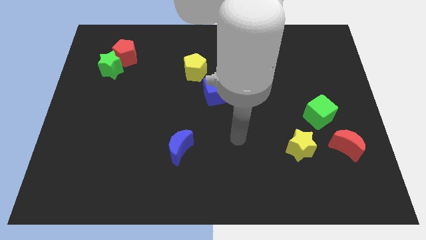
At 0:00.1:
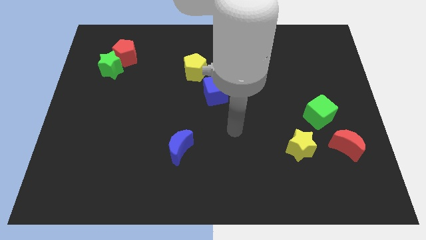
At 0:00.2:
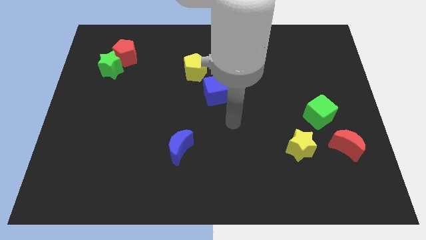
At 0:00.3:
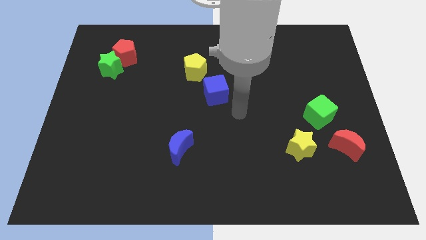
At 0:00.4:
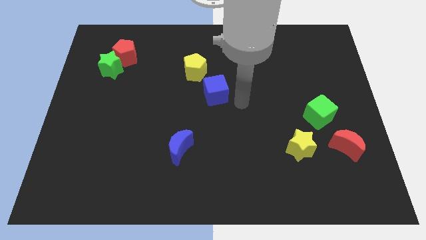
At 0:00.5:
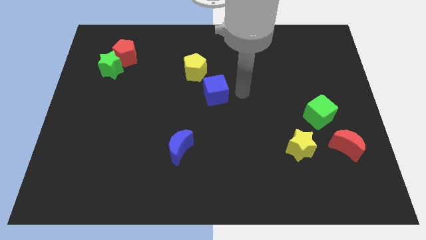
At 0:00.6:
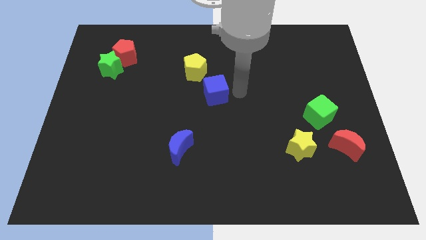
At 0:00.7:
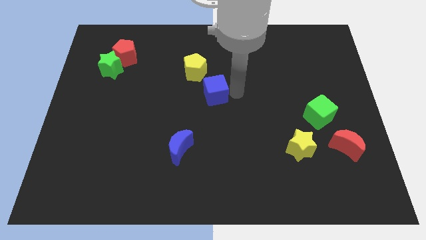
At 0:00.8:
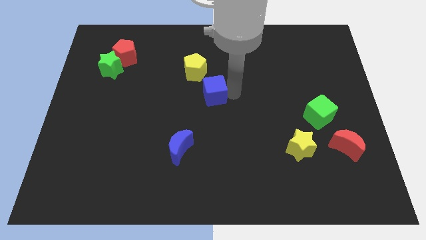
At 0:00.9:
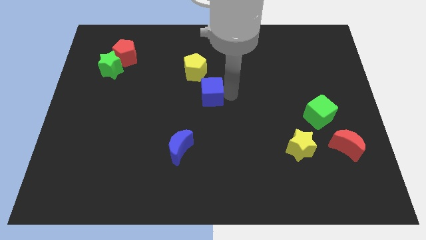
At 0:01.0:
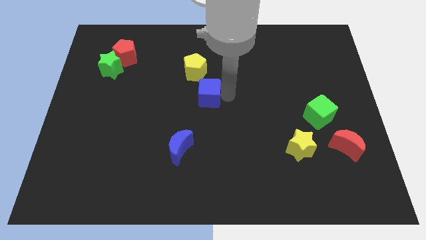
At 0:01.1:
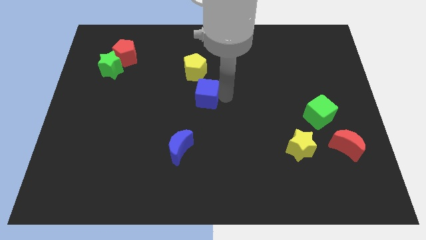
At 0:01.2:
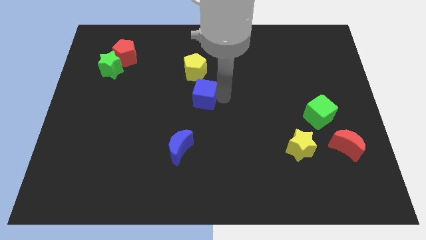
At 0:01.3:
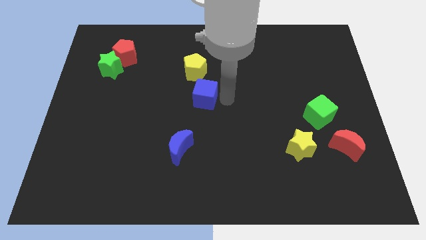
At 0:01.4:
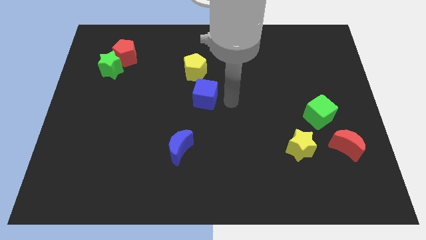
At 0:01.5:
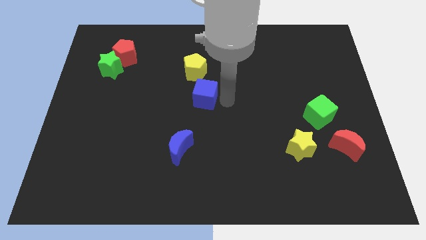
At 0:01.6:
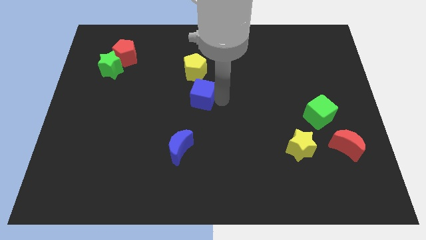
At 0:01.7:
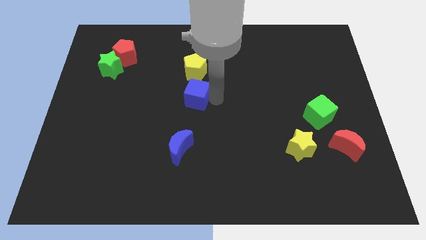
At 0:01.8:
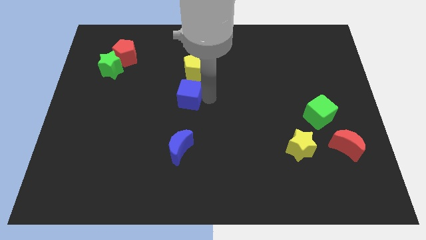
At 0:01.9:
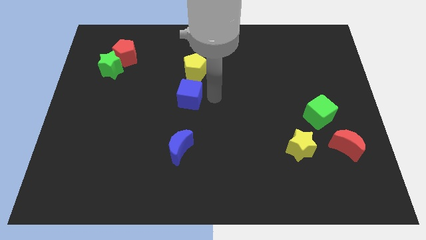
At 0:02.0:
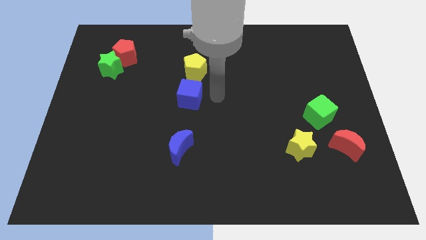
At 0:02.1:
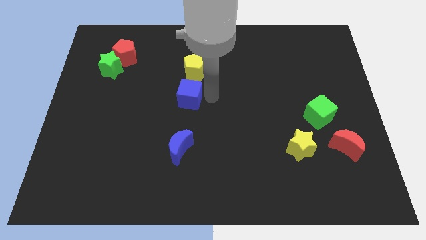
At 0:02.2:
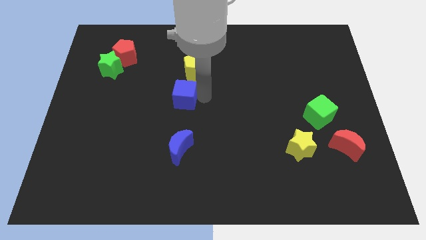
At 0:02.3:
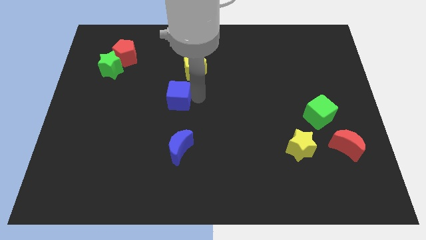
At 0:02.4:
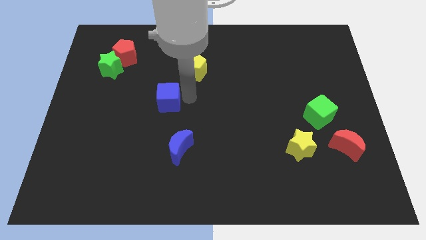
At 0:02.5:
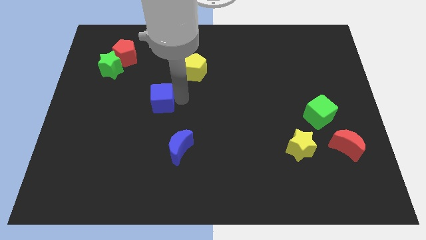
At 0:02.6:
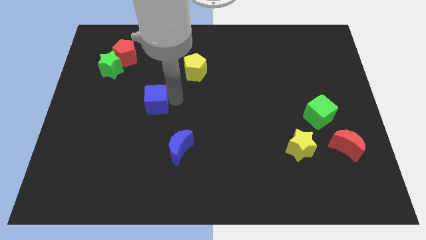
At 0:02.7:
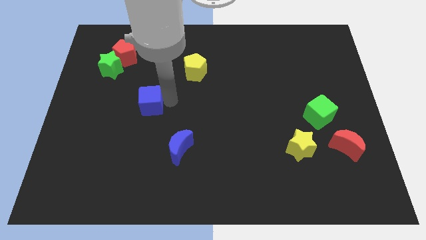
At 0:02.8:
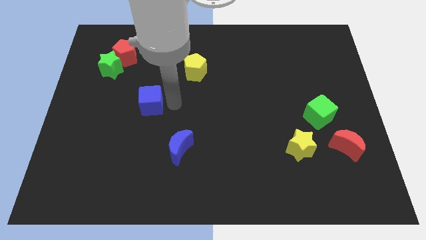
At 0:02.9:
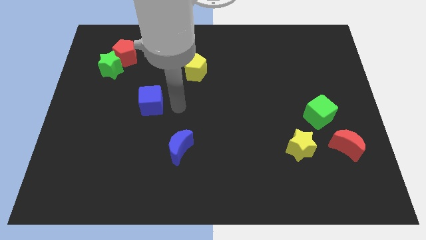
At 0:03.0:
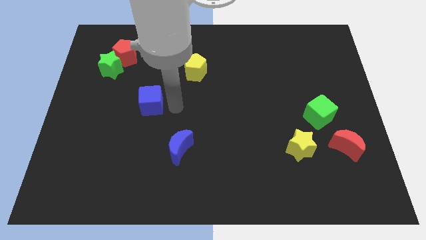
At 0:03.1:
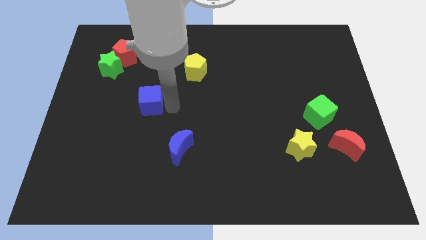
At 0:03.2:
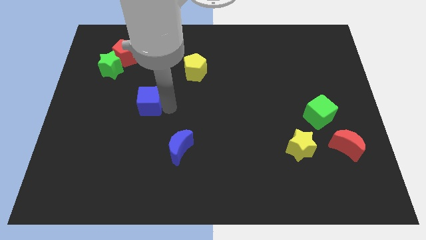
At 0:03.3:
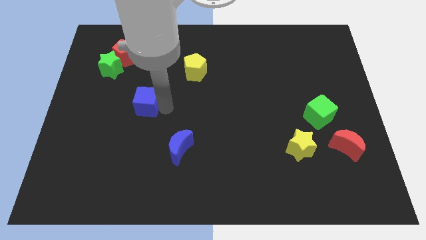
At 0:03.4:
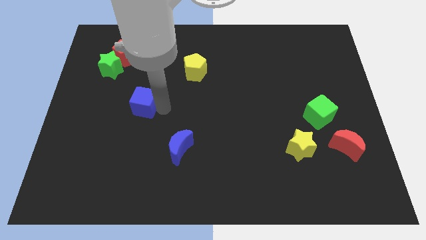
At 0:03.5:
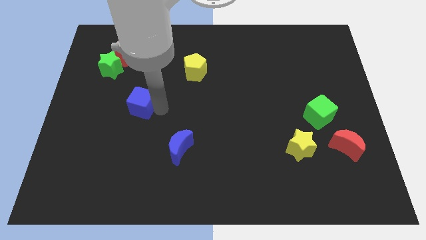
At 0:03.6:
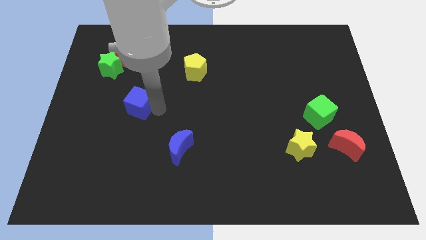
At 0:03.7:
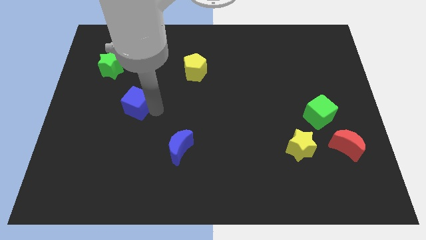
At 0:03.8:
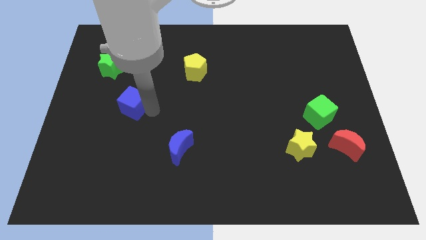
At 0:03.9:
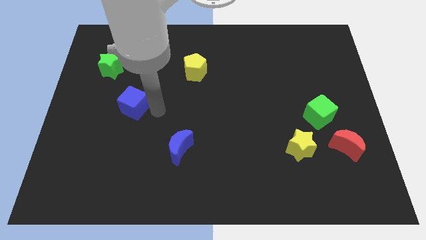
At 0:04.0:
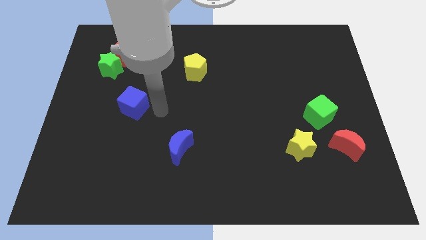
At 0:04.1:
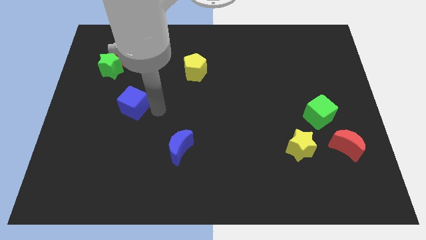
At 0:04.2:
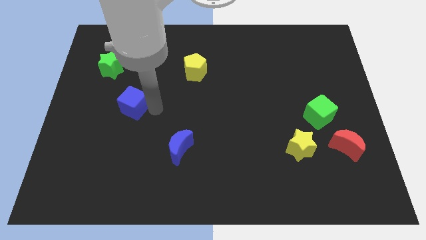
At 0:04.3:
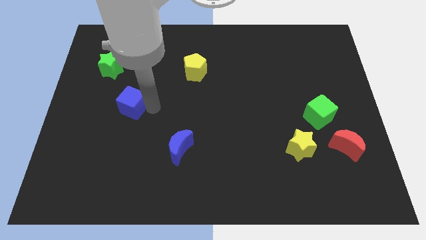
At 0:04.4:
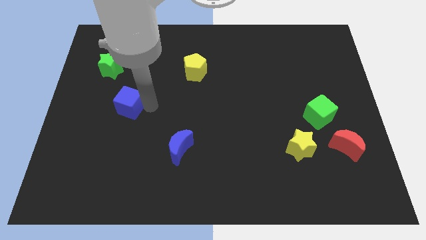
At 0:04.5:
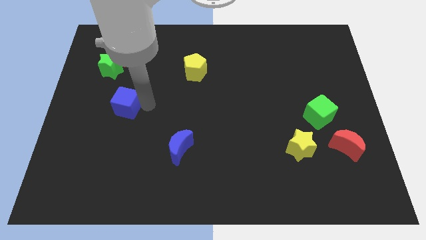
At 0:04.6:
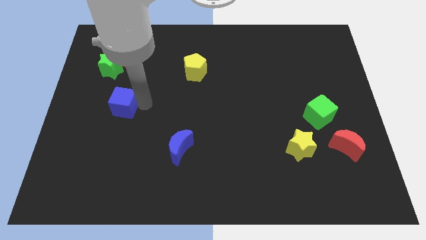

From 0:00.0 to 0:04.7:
push the blue cube to the bottom side of the green star

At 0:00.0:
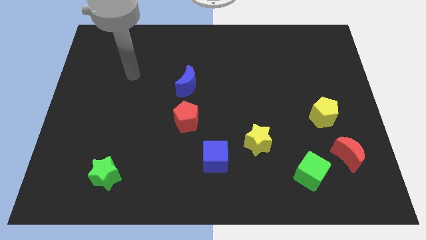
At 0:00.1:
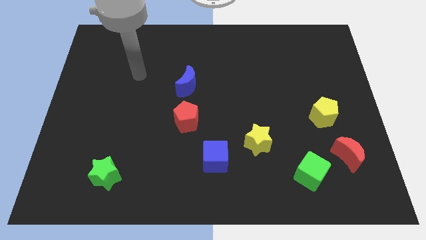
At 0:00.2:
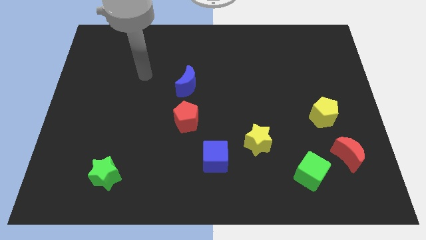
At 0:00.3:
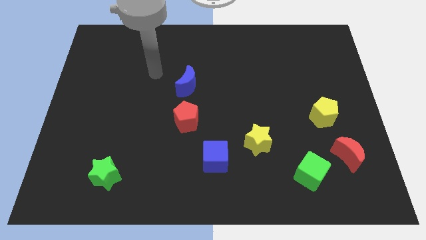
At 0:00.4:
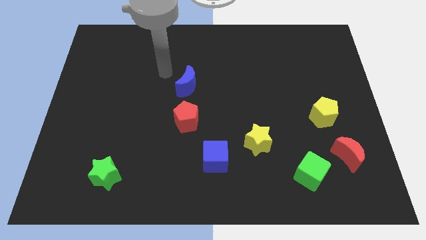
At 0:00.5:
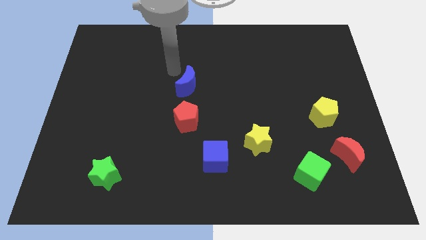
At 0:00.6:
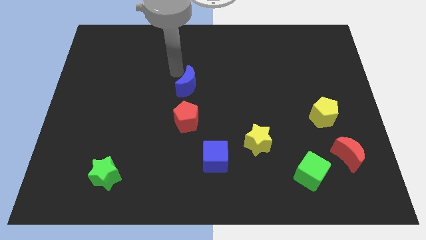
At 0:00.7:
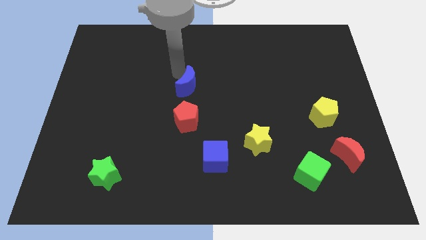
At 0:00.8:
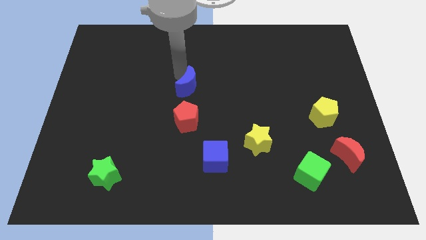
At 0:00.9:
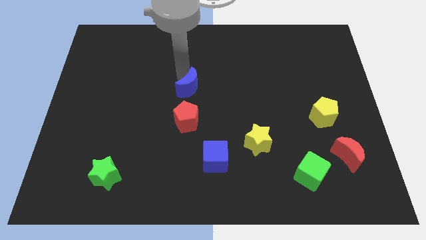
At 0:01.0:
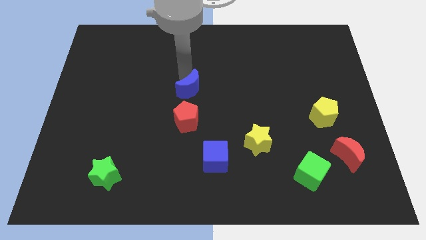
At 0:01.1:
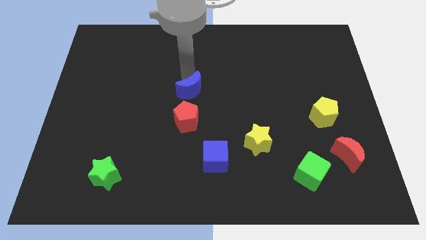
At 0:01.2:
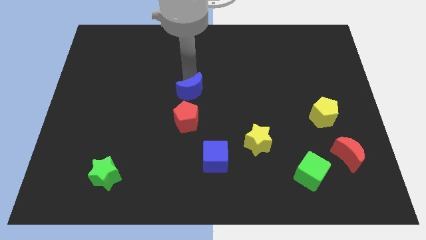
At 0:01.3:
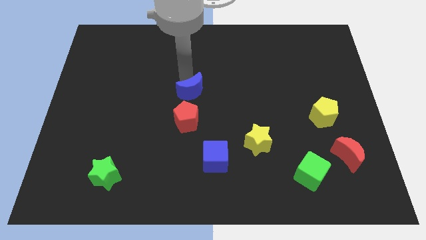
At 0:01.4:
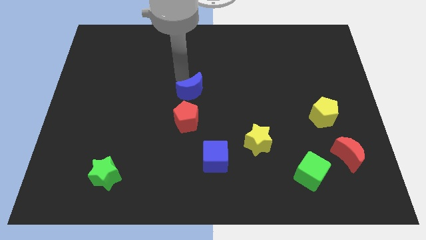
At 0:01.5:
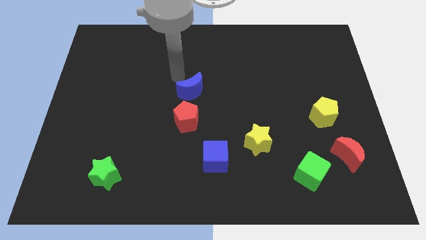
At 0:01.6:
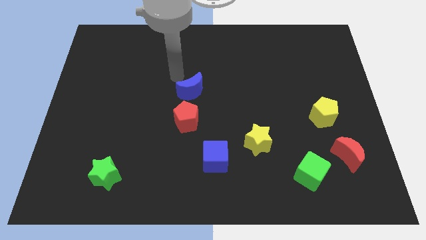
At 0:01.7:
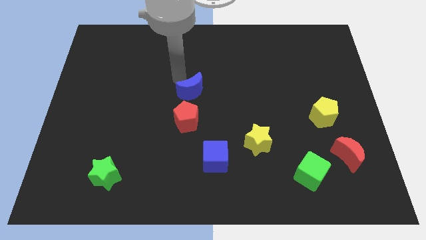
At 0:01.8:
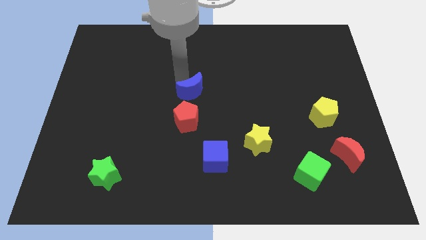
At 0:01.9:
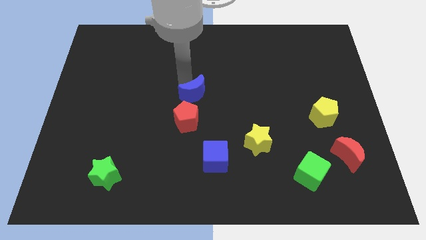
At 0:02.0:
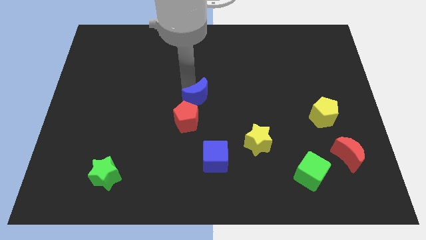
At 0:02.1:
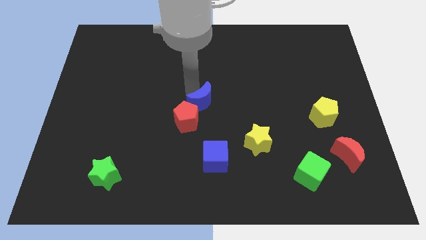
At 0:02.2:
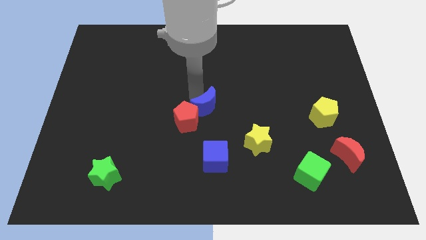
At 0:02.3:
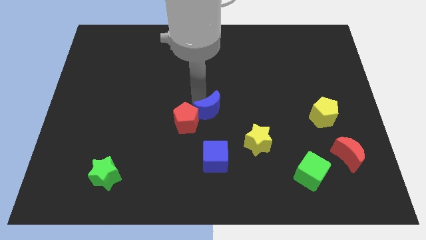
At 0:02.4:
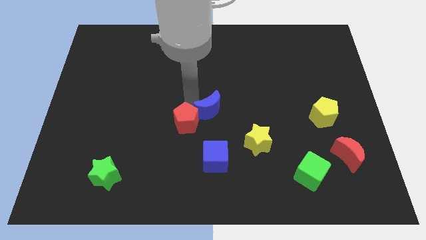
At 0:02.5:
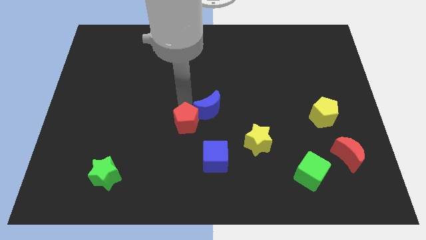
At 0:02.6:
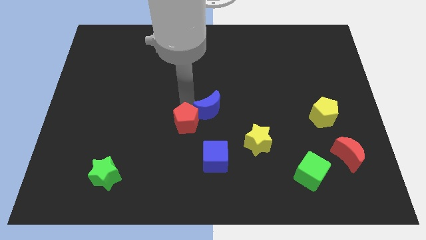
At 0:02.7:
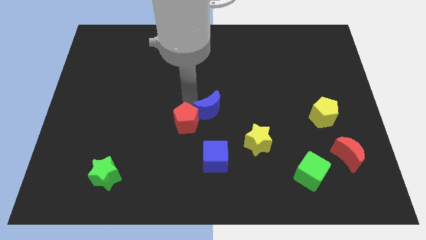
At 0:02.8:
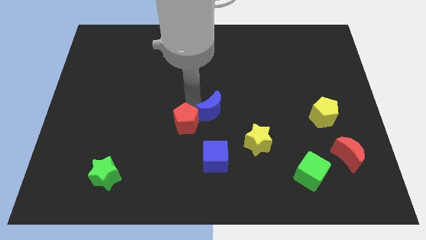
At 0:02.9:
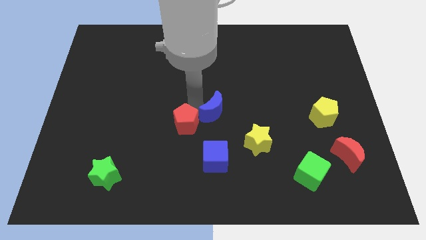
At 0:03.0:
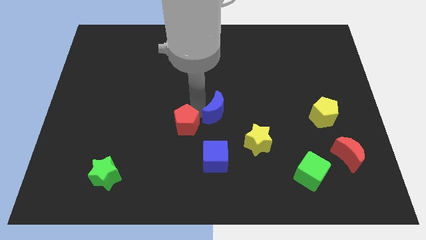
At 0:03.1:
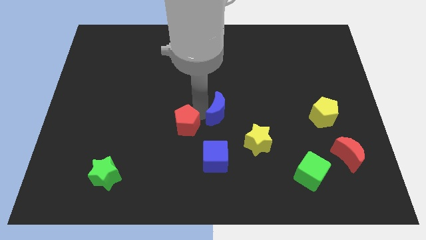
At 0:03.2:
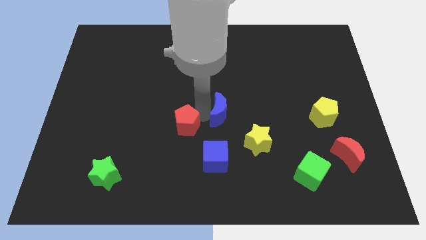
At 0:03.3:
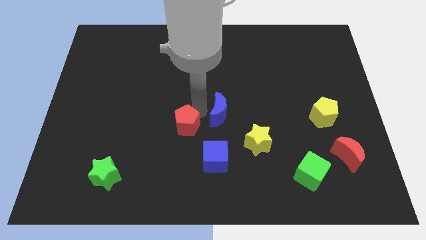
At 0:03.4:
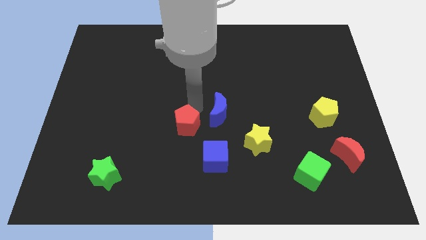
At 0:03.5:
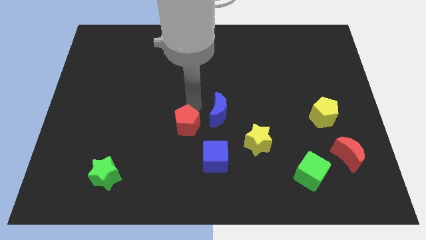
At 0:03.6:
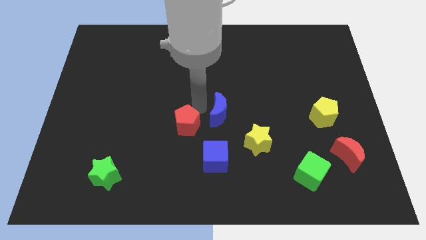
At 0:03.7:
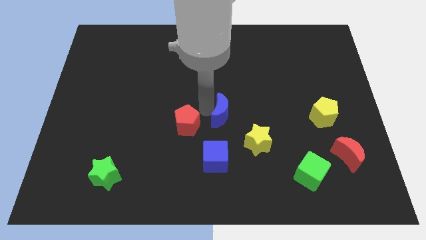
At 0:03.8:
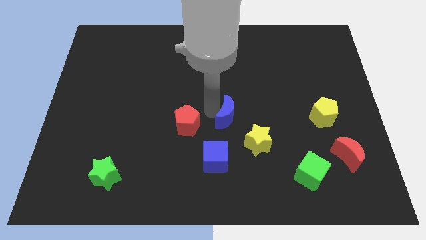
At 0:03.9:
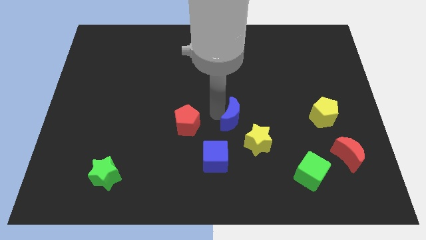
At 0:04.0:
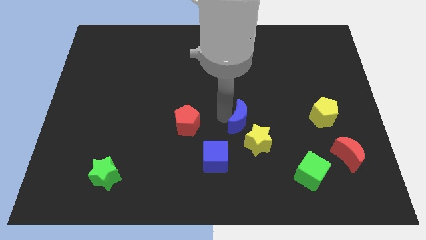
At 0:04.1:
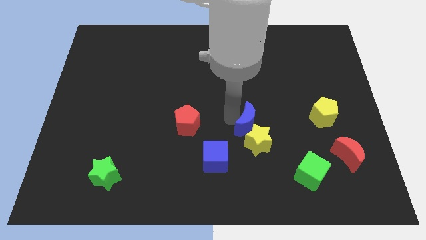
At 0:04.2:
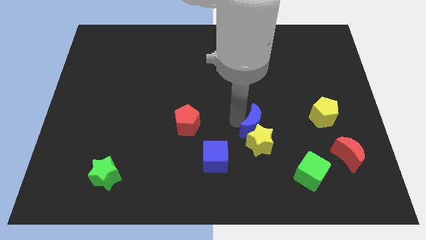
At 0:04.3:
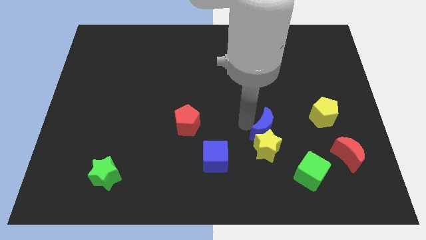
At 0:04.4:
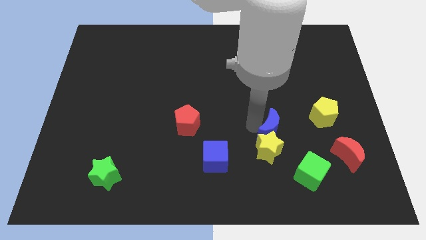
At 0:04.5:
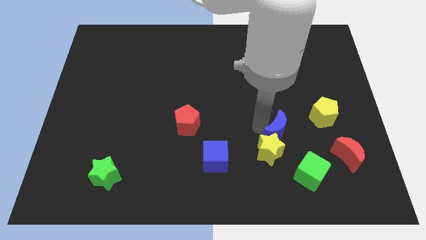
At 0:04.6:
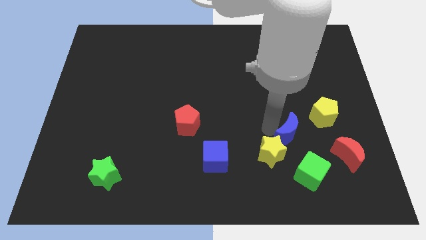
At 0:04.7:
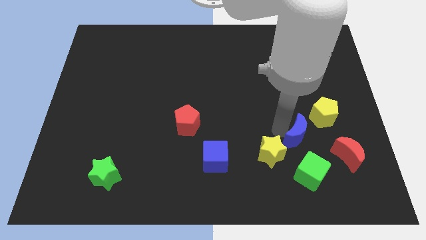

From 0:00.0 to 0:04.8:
slide the blue moon right of the yellow star
